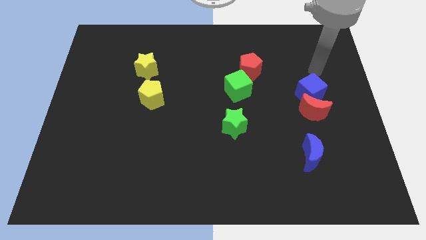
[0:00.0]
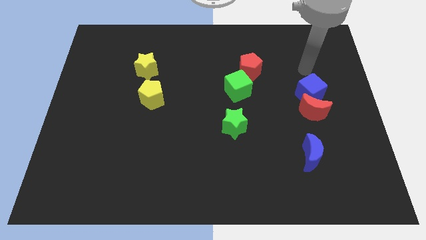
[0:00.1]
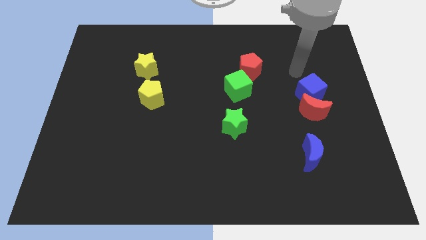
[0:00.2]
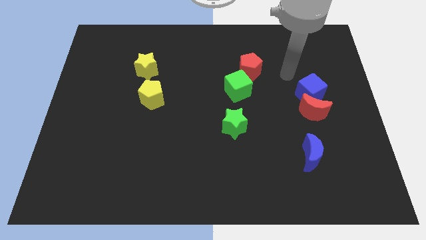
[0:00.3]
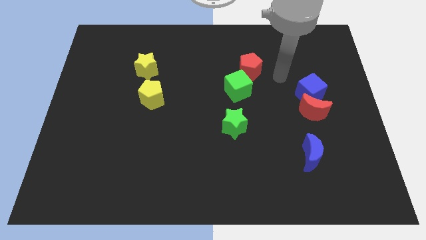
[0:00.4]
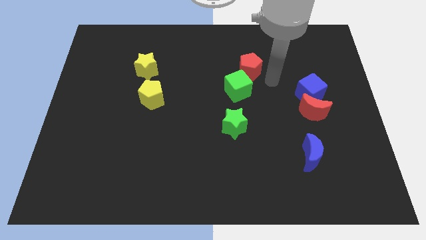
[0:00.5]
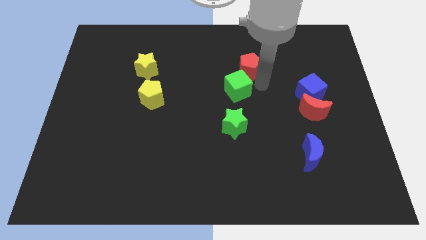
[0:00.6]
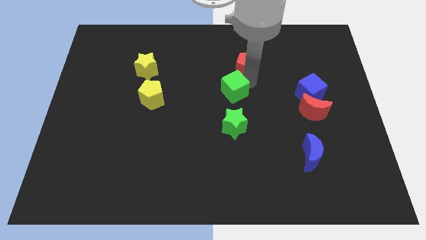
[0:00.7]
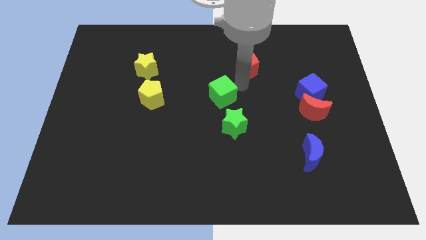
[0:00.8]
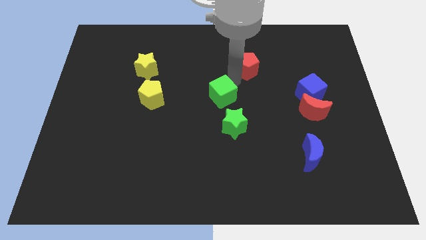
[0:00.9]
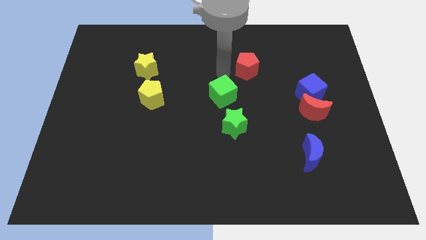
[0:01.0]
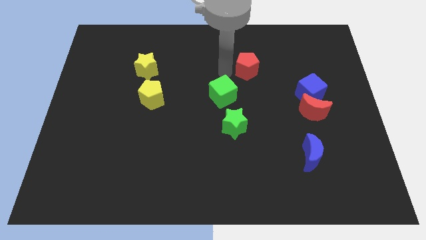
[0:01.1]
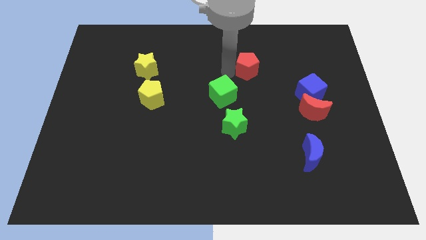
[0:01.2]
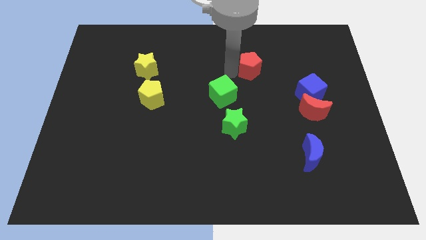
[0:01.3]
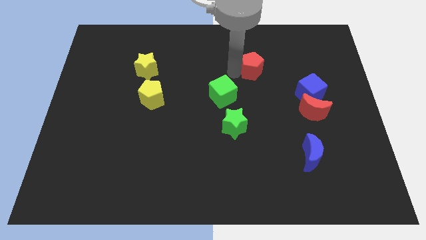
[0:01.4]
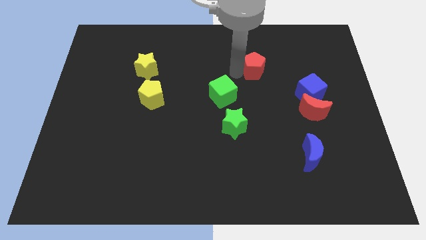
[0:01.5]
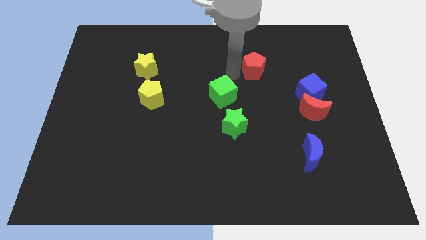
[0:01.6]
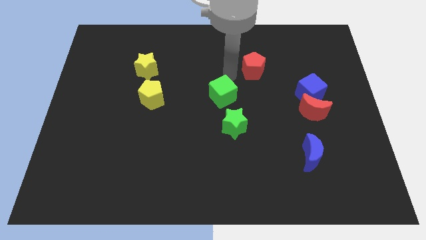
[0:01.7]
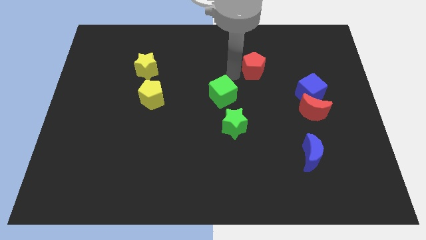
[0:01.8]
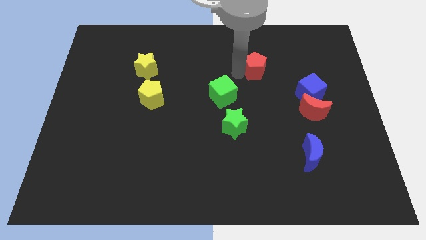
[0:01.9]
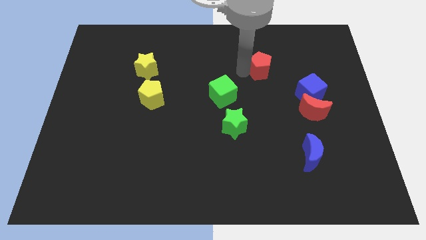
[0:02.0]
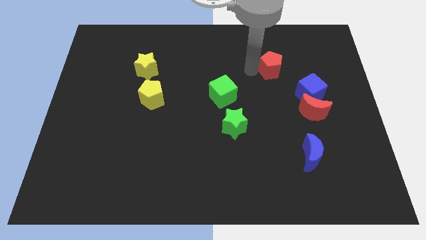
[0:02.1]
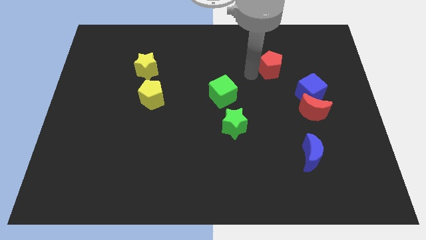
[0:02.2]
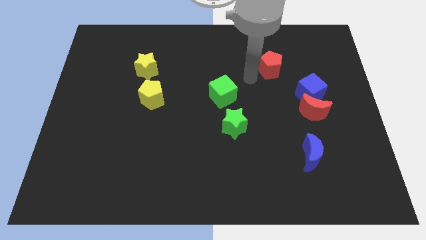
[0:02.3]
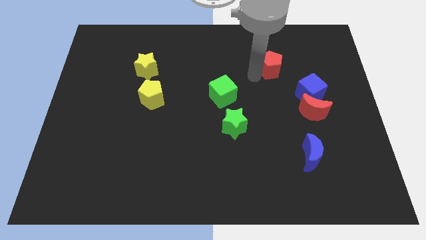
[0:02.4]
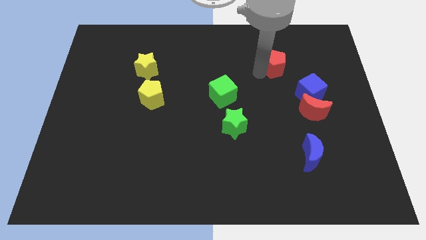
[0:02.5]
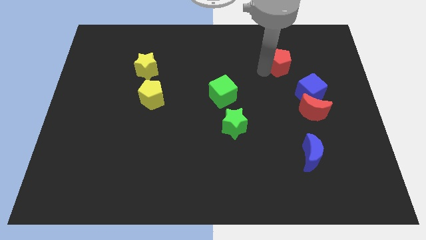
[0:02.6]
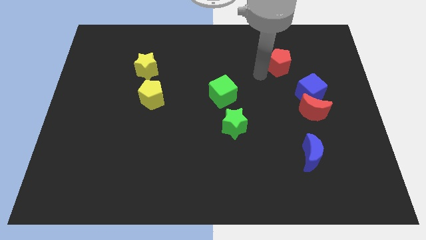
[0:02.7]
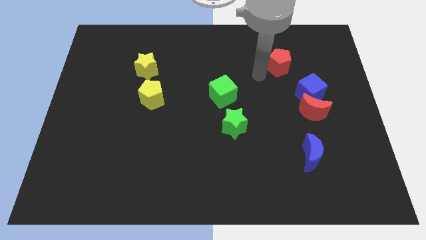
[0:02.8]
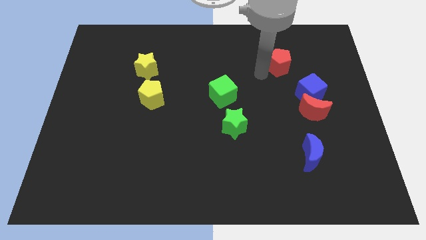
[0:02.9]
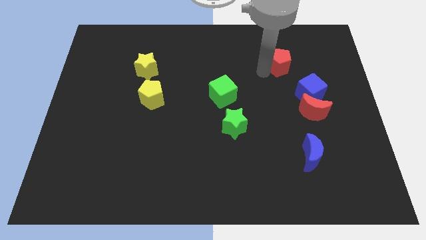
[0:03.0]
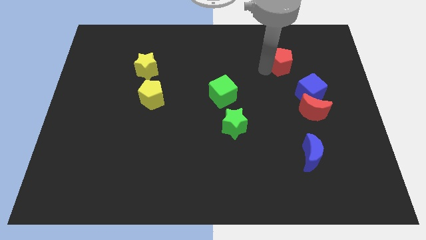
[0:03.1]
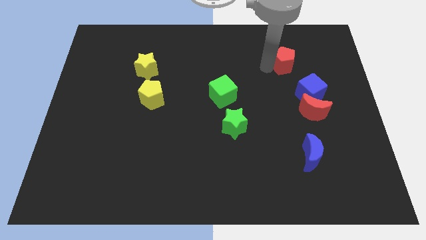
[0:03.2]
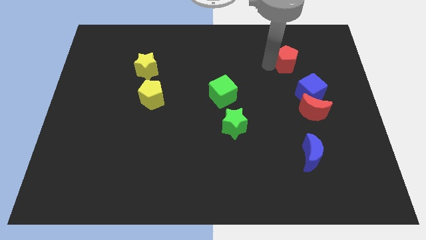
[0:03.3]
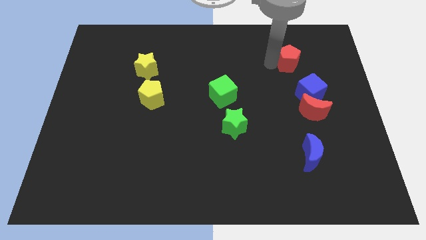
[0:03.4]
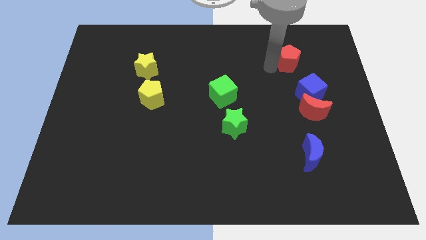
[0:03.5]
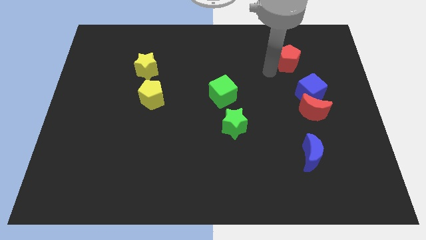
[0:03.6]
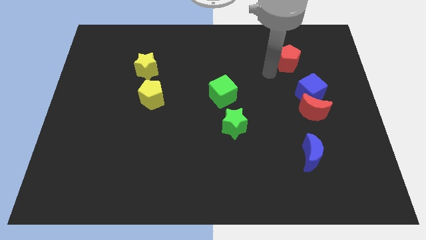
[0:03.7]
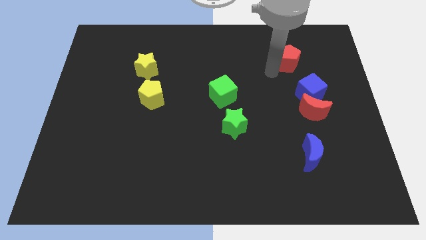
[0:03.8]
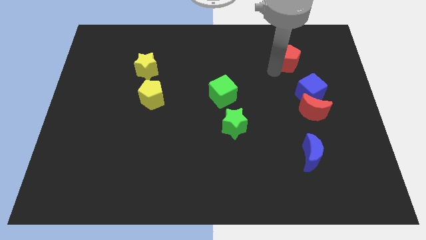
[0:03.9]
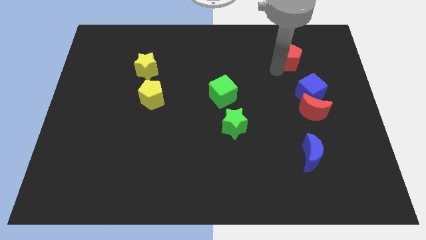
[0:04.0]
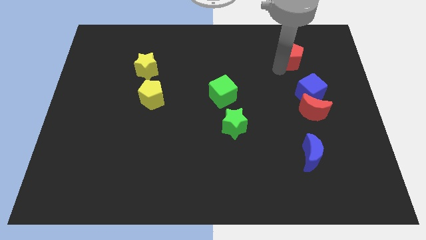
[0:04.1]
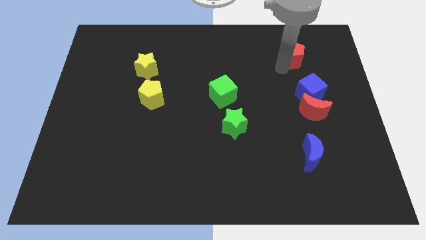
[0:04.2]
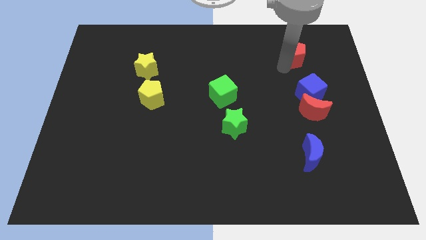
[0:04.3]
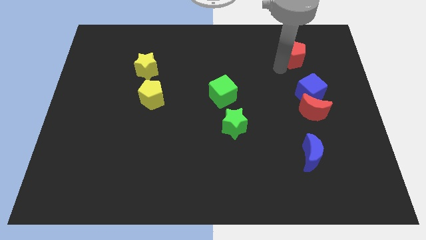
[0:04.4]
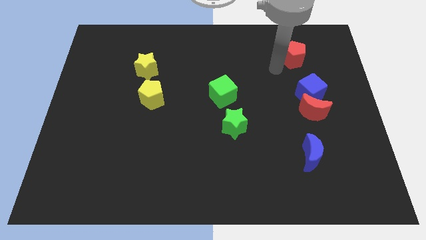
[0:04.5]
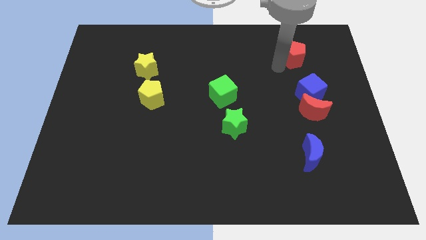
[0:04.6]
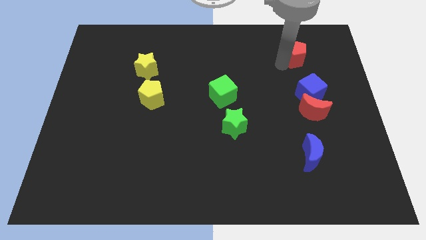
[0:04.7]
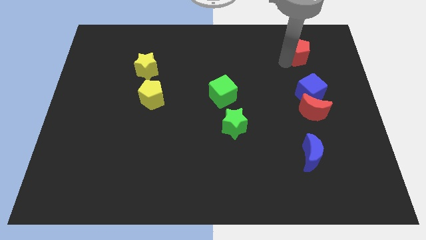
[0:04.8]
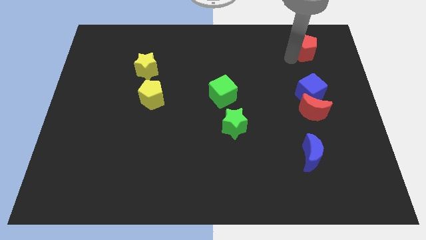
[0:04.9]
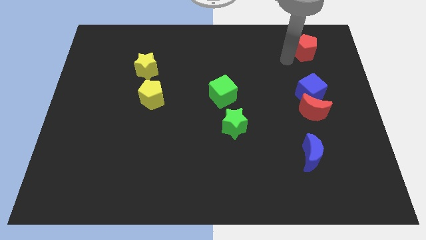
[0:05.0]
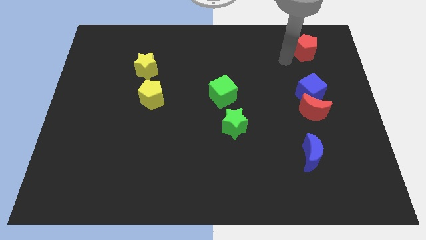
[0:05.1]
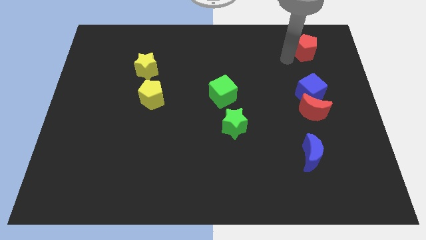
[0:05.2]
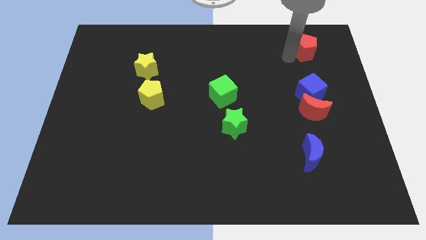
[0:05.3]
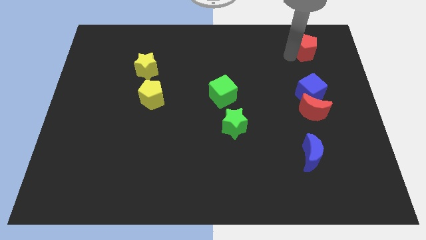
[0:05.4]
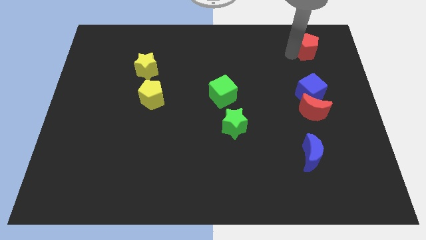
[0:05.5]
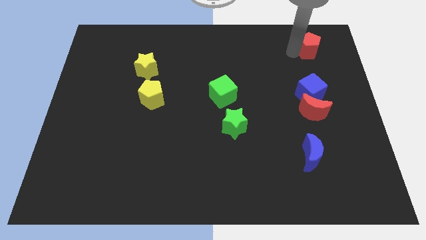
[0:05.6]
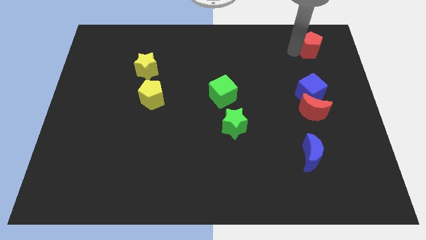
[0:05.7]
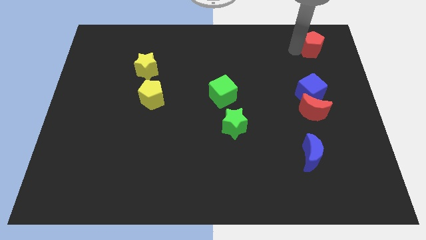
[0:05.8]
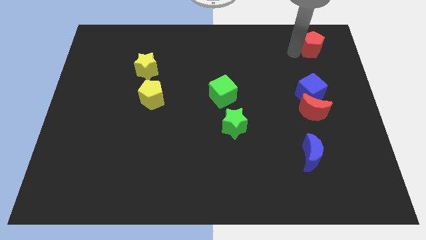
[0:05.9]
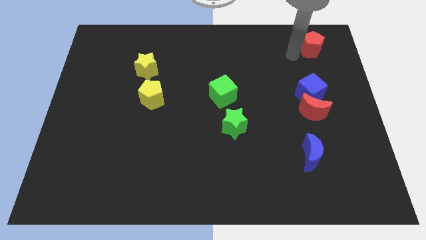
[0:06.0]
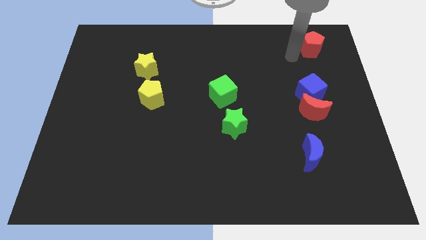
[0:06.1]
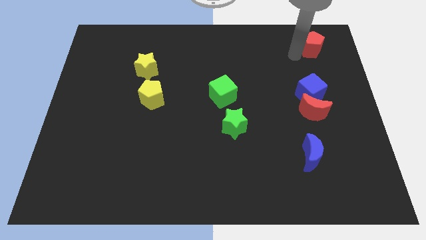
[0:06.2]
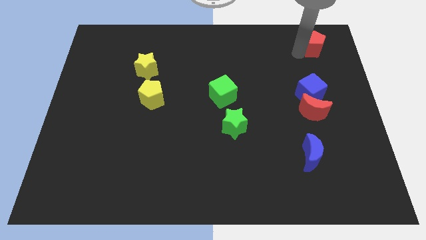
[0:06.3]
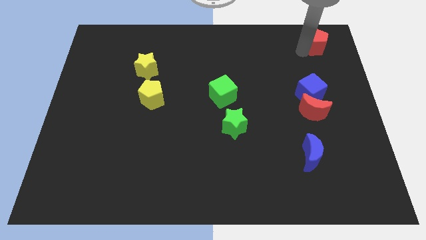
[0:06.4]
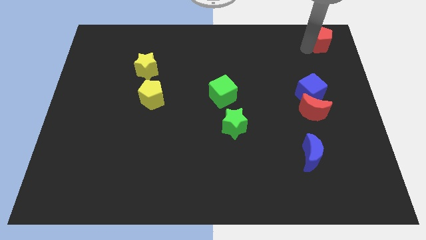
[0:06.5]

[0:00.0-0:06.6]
put the red pentagon to the top right corner

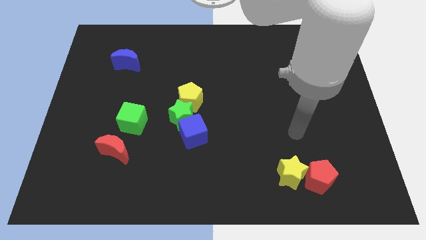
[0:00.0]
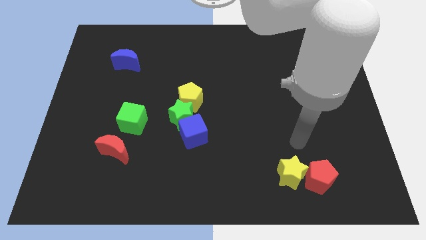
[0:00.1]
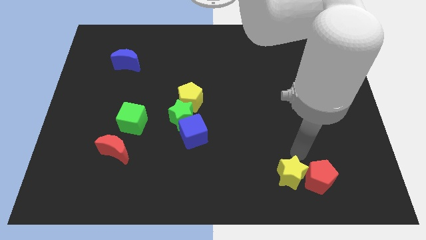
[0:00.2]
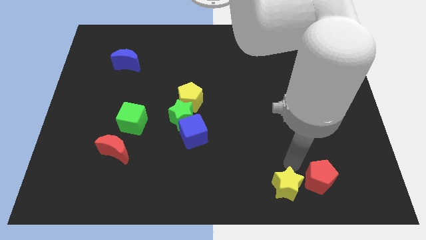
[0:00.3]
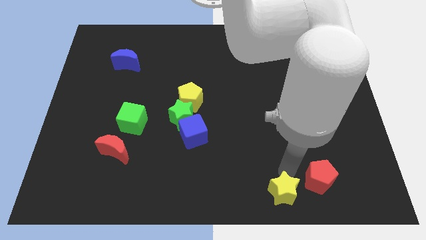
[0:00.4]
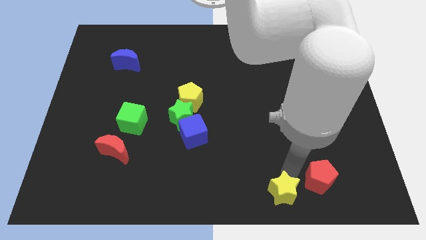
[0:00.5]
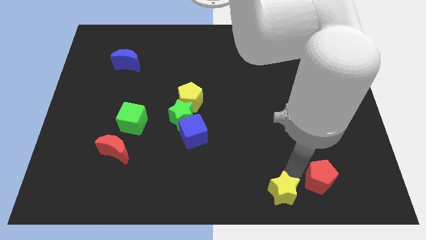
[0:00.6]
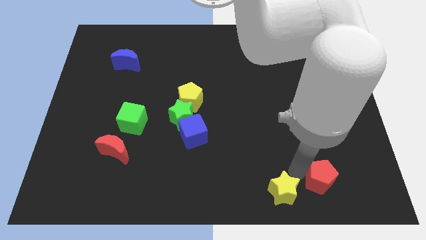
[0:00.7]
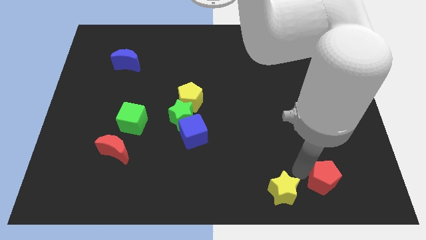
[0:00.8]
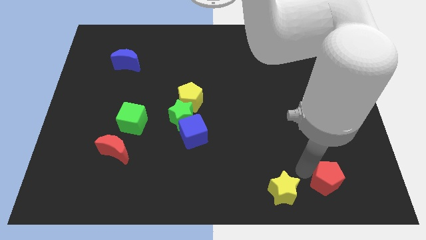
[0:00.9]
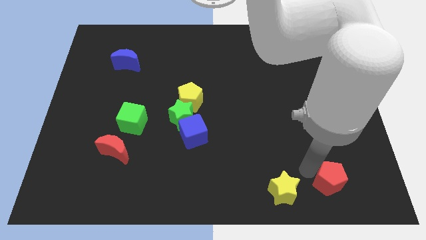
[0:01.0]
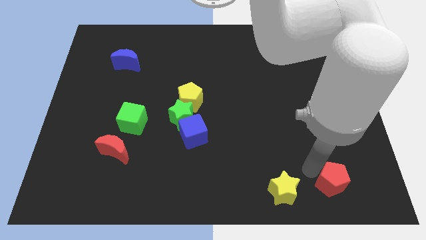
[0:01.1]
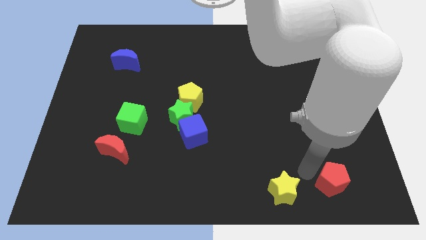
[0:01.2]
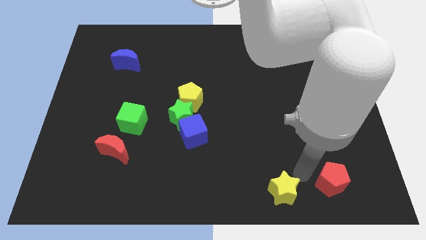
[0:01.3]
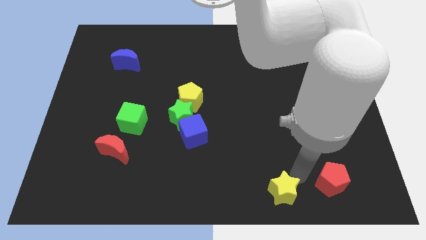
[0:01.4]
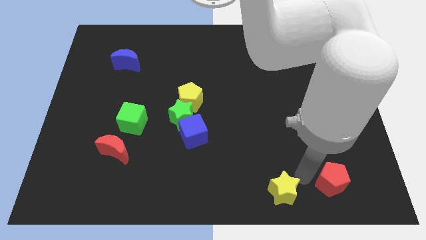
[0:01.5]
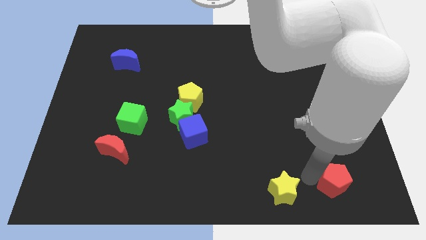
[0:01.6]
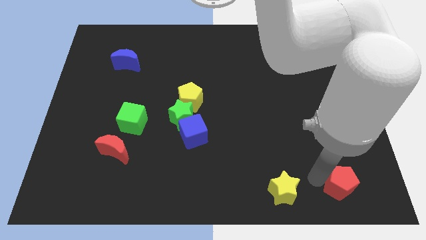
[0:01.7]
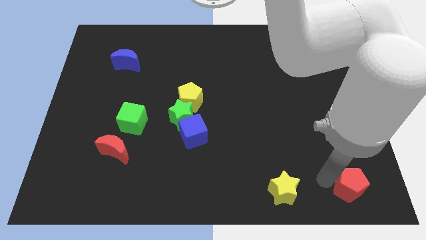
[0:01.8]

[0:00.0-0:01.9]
put the red pentagon to the bottom right
